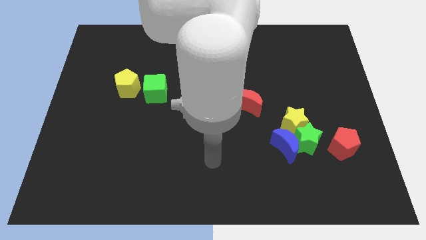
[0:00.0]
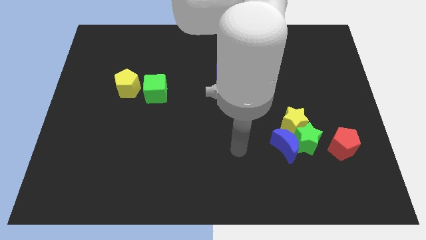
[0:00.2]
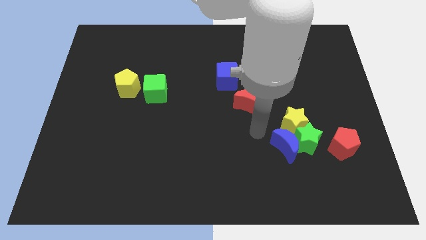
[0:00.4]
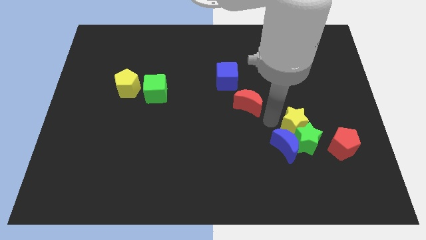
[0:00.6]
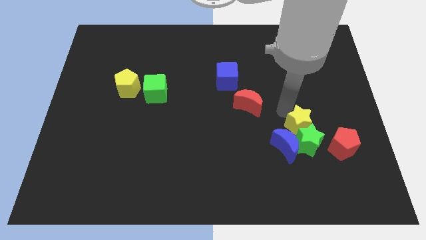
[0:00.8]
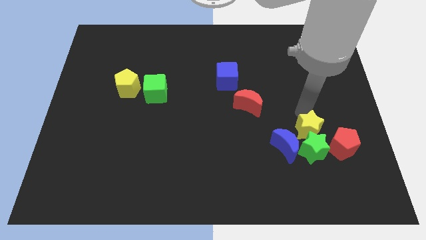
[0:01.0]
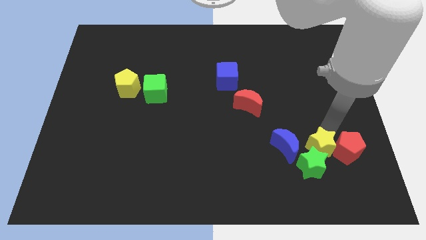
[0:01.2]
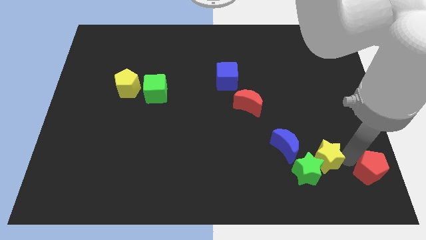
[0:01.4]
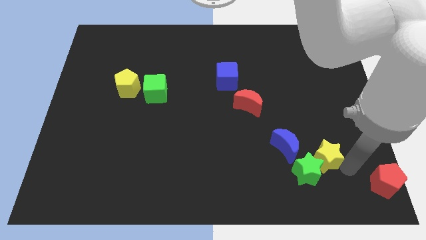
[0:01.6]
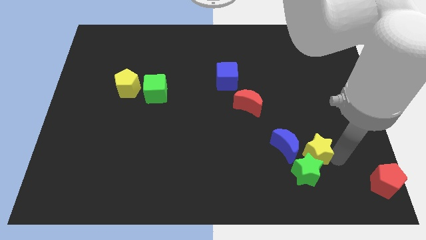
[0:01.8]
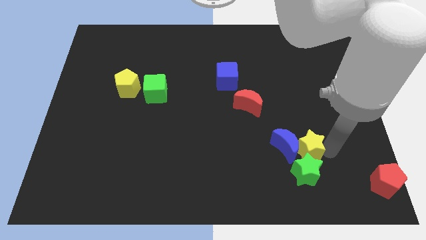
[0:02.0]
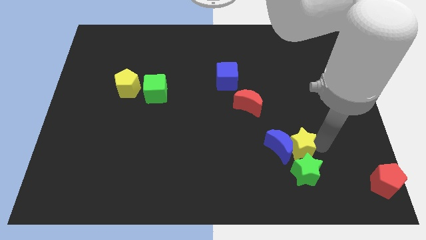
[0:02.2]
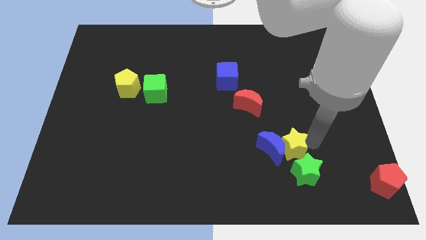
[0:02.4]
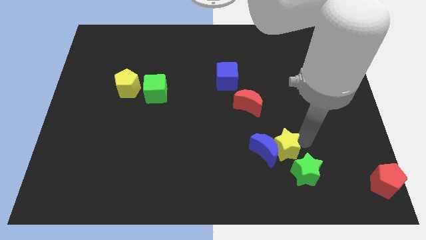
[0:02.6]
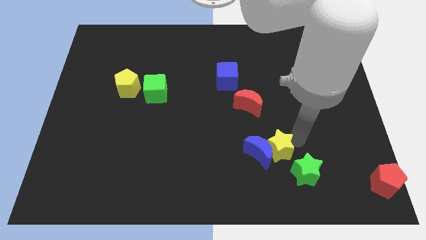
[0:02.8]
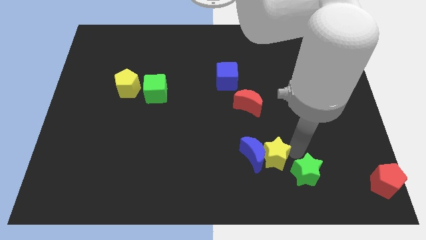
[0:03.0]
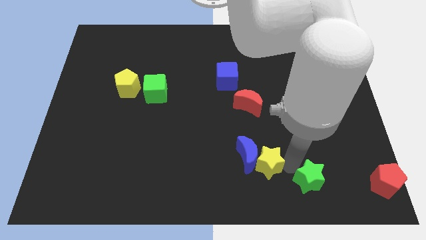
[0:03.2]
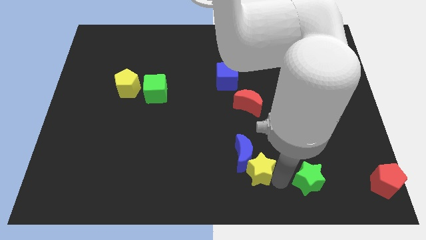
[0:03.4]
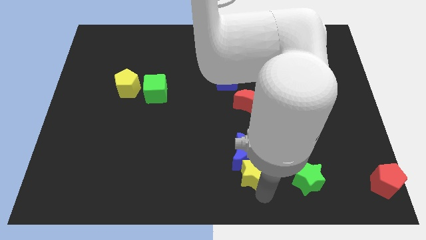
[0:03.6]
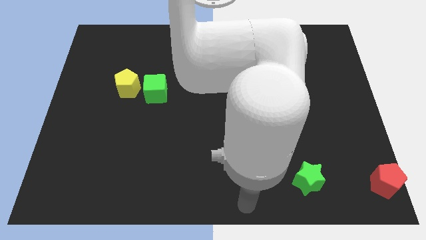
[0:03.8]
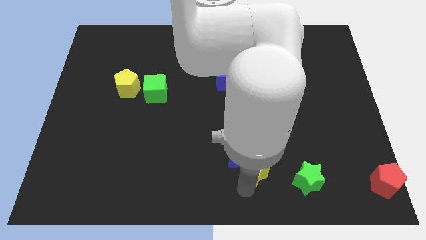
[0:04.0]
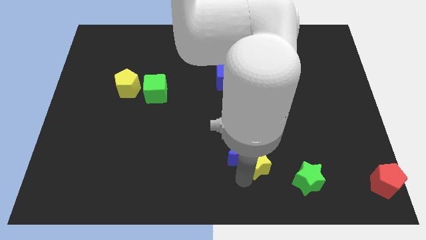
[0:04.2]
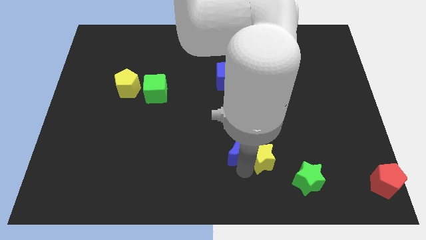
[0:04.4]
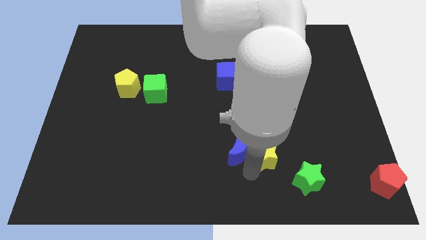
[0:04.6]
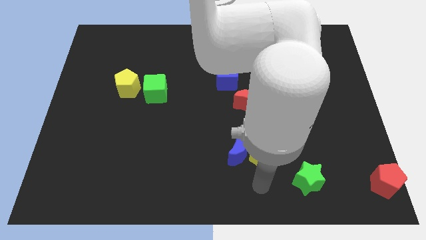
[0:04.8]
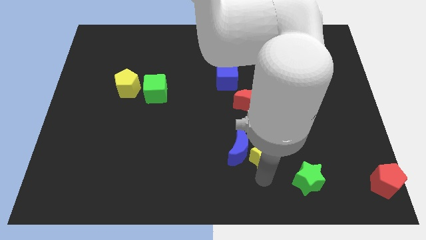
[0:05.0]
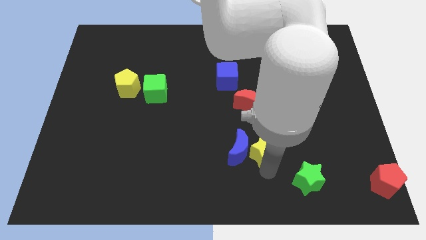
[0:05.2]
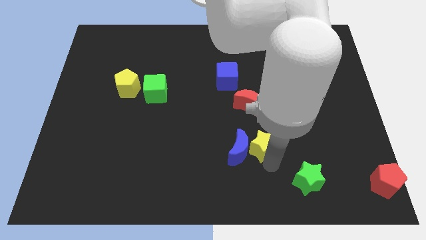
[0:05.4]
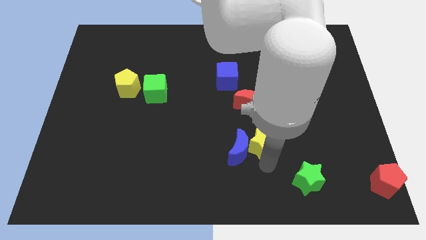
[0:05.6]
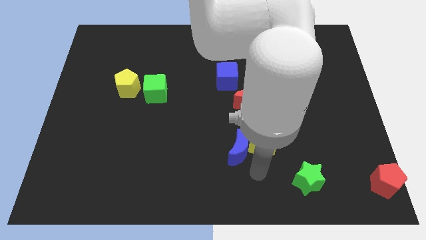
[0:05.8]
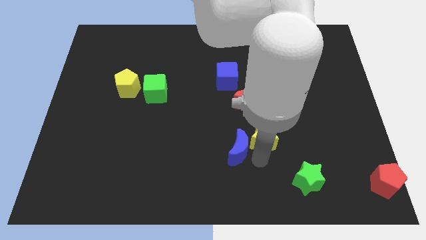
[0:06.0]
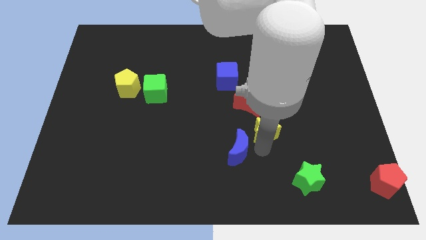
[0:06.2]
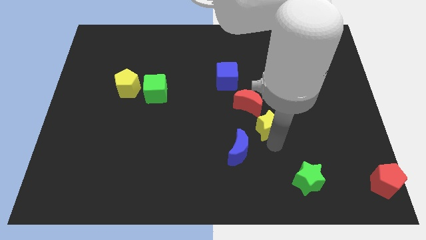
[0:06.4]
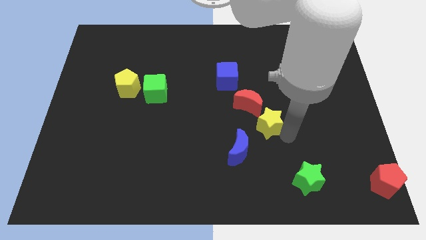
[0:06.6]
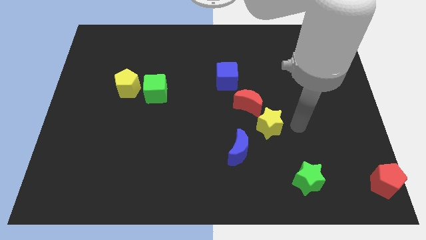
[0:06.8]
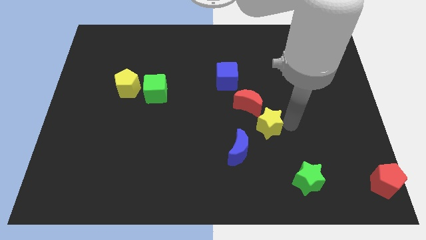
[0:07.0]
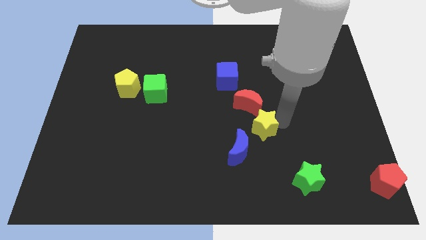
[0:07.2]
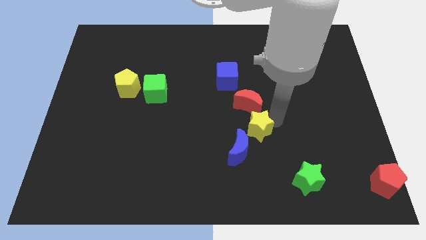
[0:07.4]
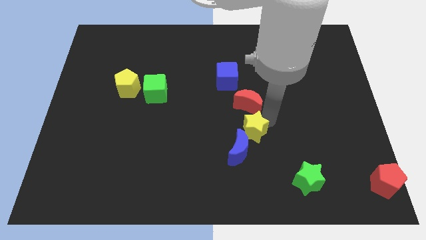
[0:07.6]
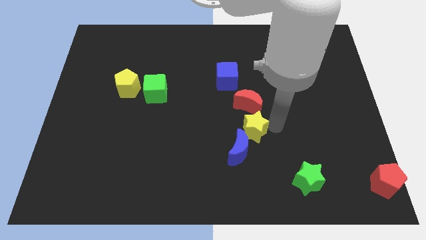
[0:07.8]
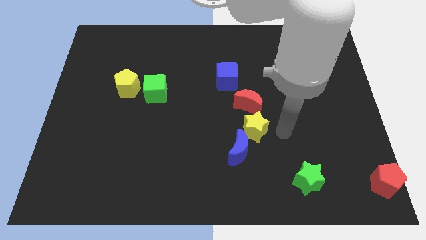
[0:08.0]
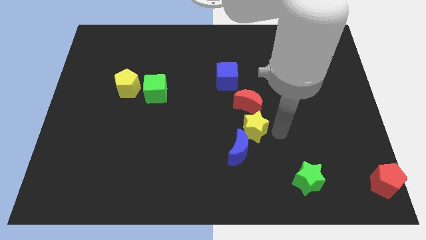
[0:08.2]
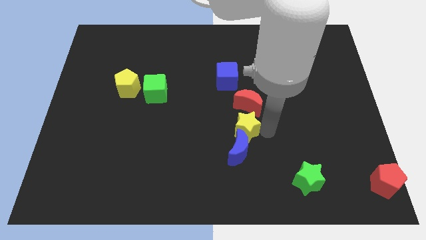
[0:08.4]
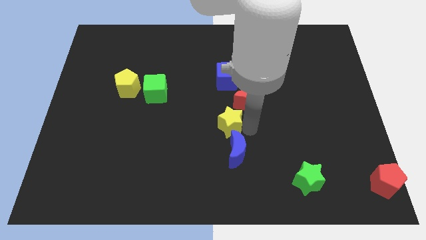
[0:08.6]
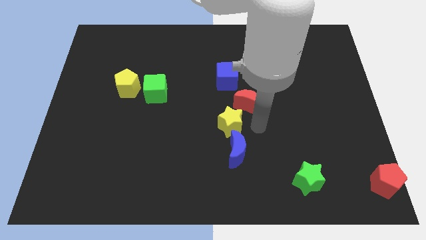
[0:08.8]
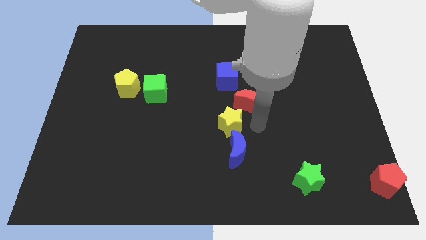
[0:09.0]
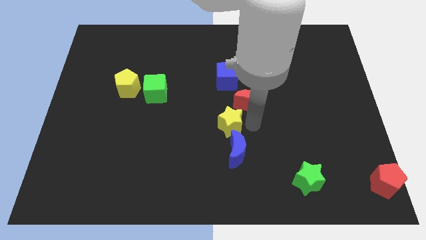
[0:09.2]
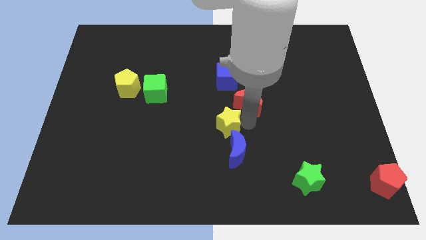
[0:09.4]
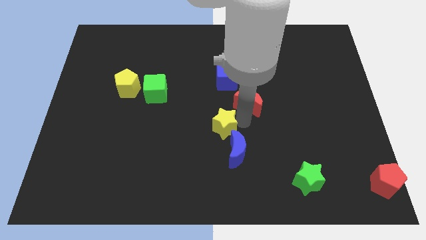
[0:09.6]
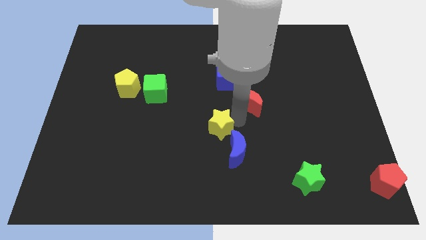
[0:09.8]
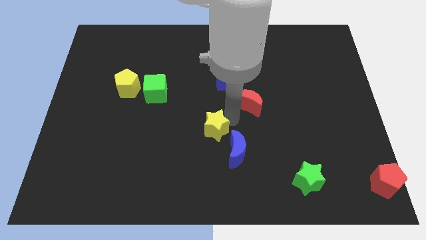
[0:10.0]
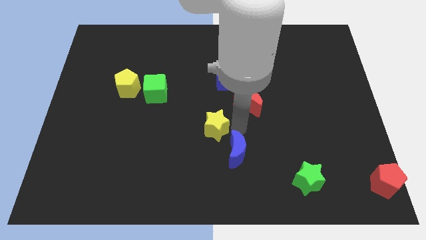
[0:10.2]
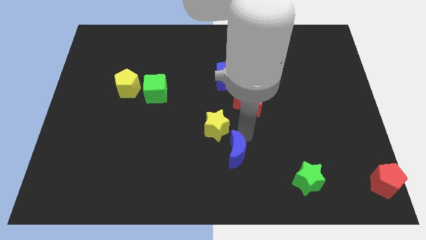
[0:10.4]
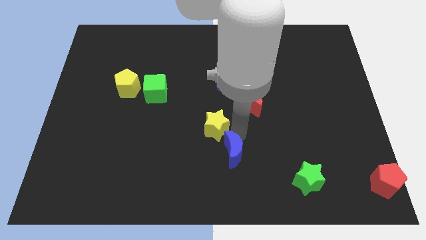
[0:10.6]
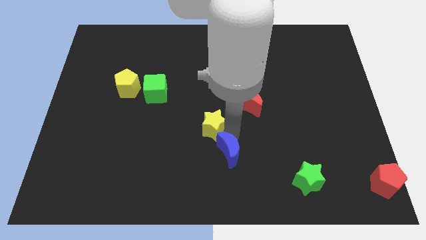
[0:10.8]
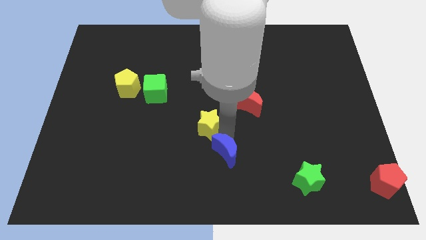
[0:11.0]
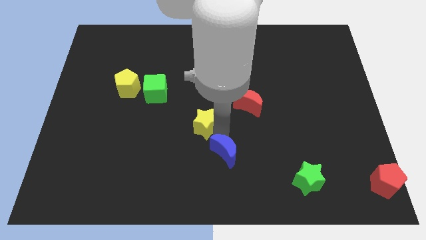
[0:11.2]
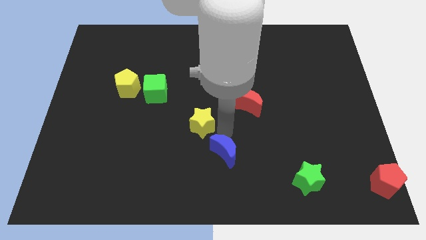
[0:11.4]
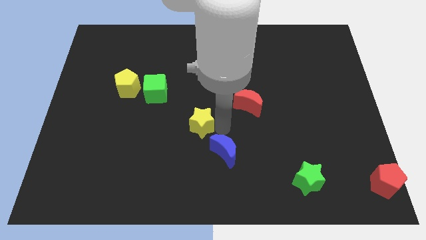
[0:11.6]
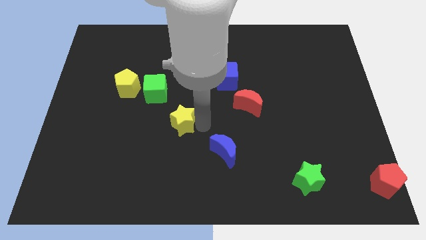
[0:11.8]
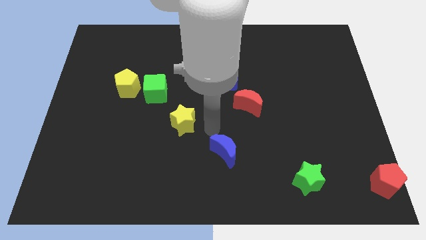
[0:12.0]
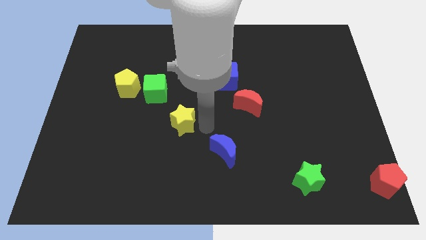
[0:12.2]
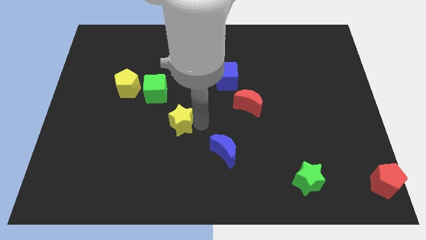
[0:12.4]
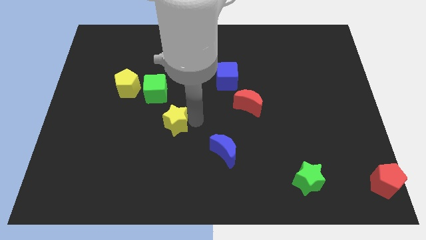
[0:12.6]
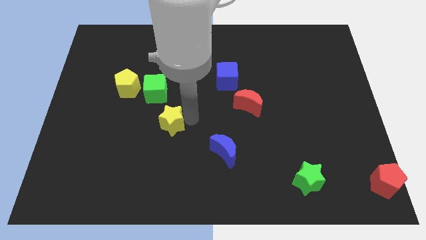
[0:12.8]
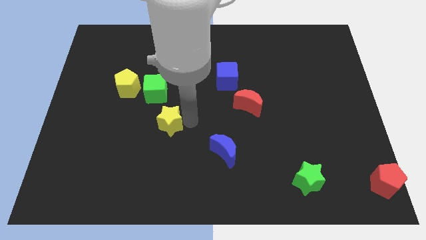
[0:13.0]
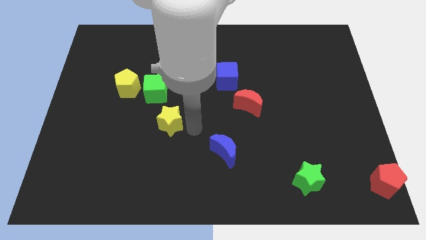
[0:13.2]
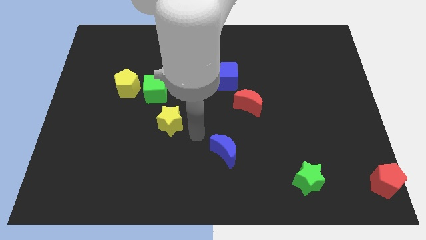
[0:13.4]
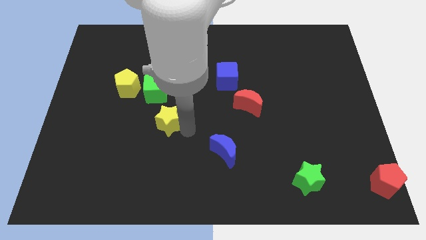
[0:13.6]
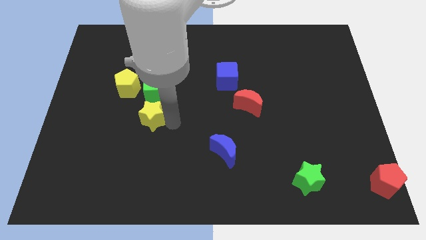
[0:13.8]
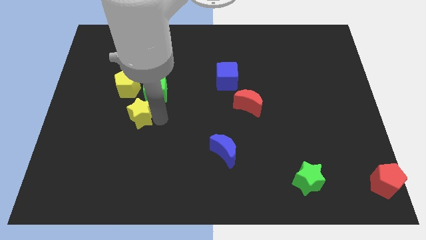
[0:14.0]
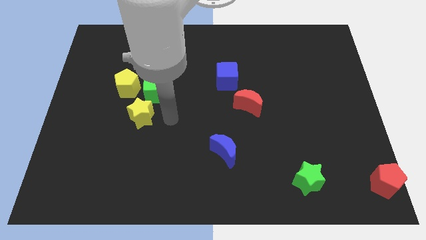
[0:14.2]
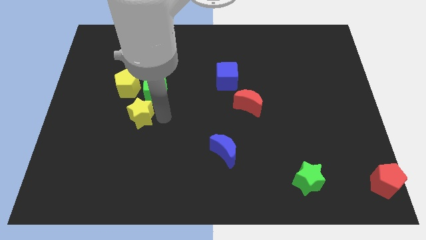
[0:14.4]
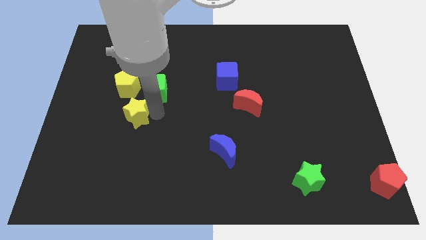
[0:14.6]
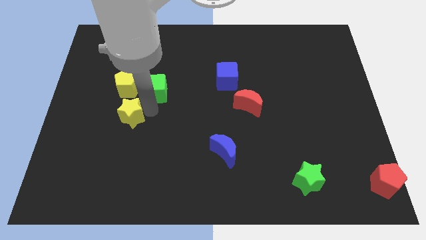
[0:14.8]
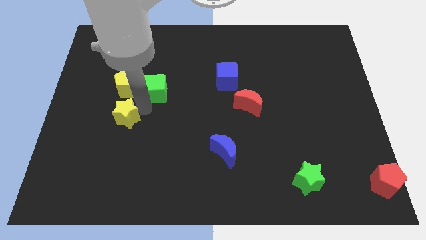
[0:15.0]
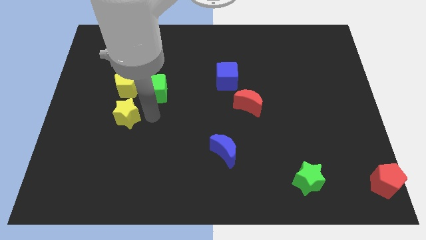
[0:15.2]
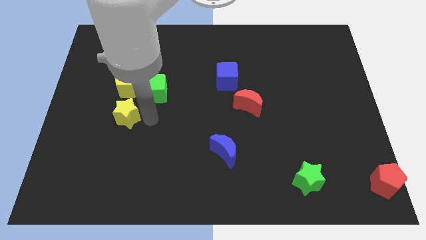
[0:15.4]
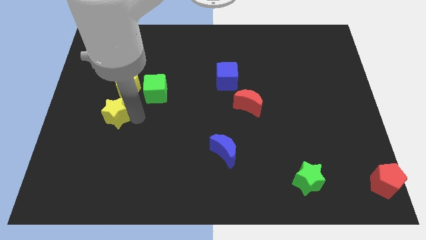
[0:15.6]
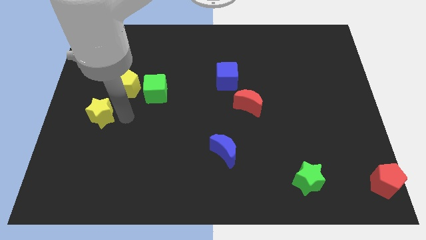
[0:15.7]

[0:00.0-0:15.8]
put the yellow star to the center left
